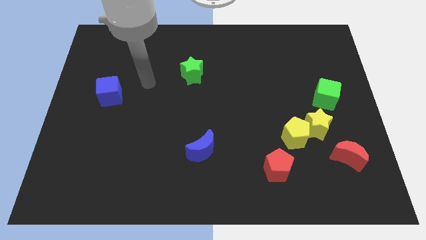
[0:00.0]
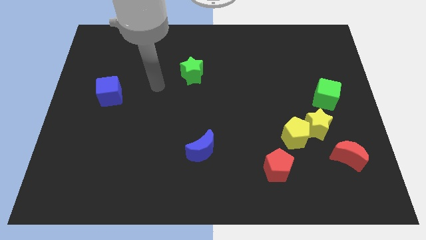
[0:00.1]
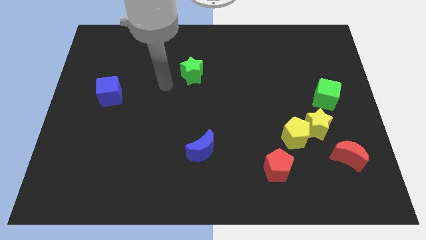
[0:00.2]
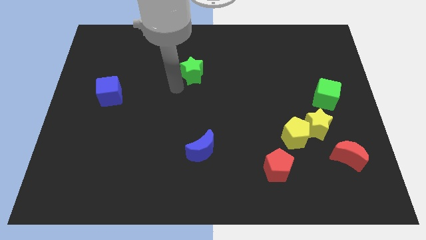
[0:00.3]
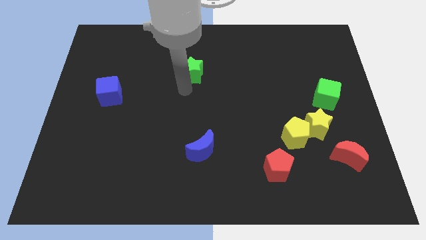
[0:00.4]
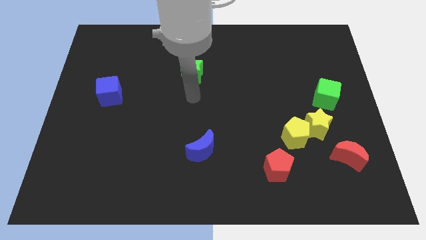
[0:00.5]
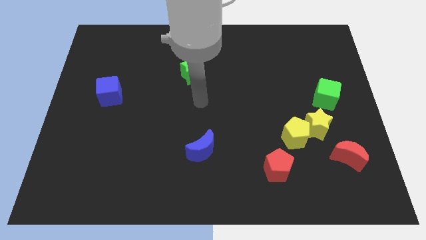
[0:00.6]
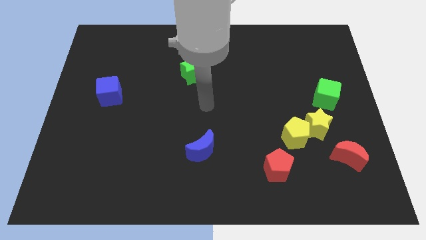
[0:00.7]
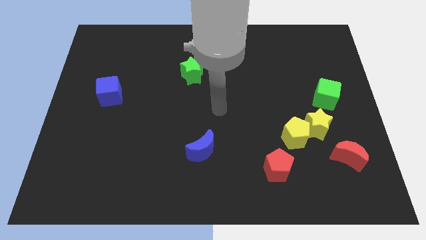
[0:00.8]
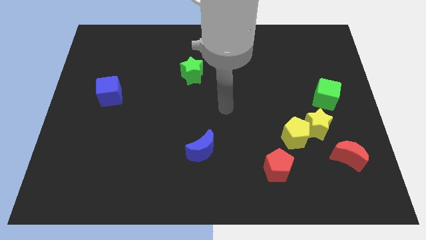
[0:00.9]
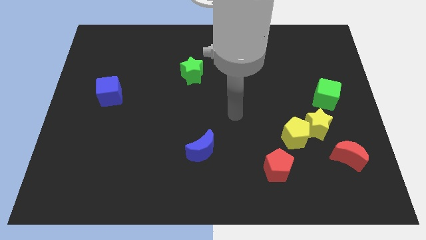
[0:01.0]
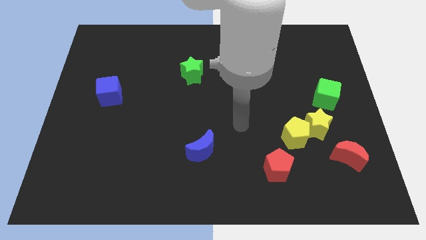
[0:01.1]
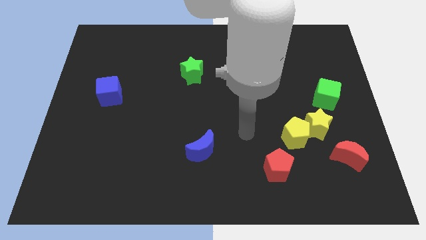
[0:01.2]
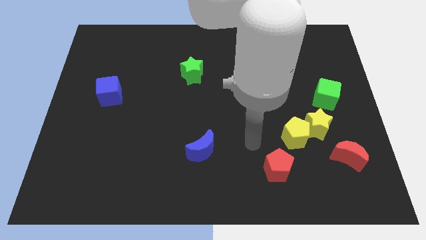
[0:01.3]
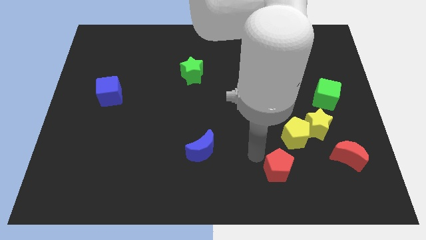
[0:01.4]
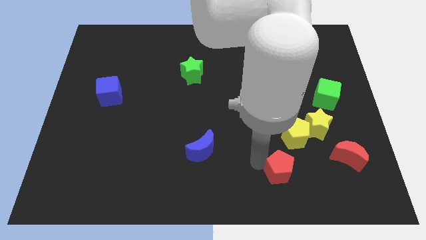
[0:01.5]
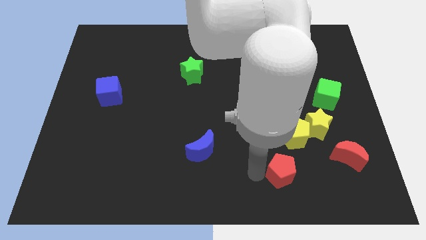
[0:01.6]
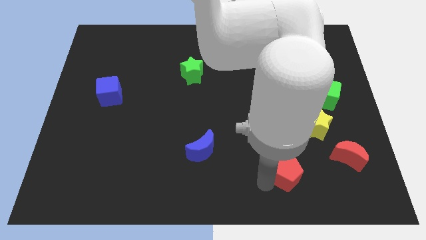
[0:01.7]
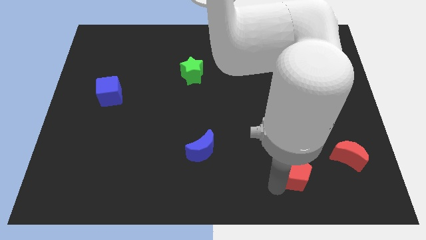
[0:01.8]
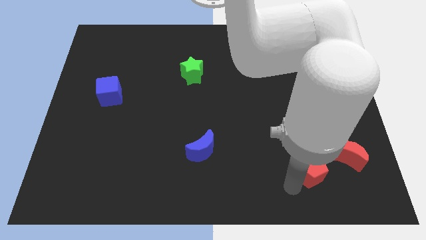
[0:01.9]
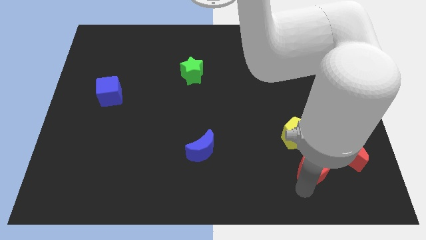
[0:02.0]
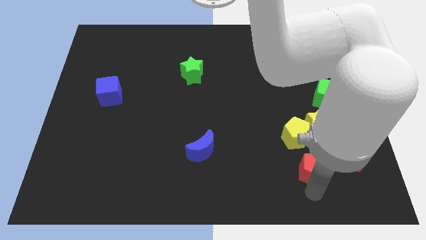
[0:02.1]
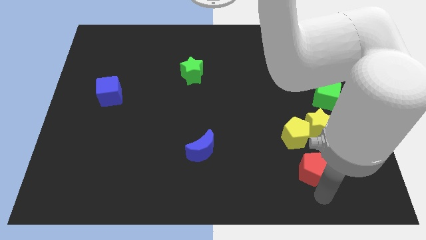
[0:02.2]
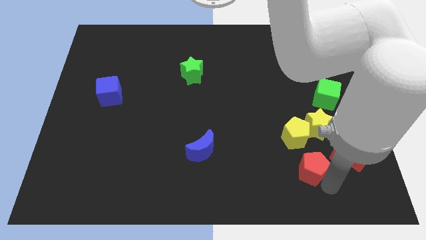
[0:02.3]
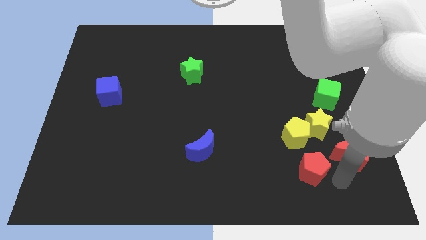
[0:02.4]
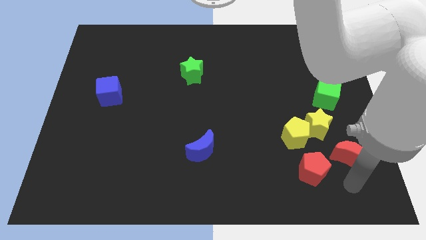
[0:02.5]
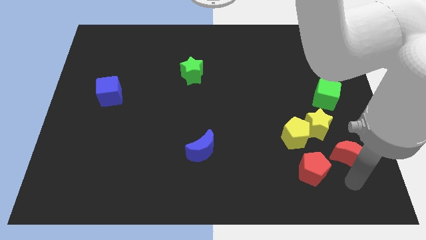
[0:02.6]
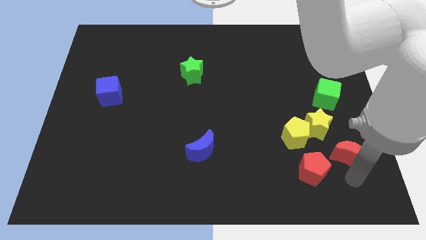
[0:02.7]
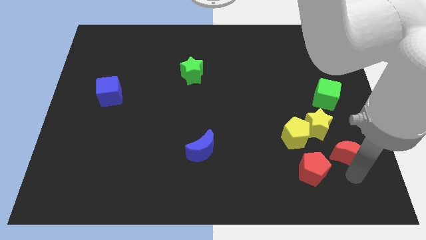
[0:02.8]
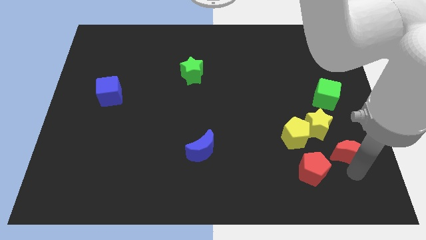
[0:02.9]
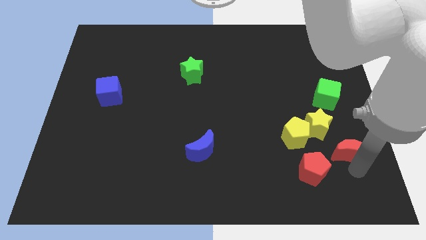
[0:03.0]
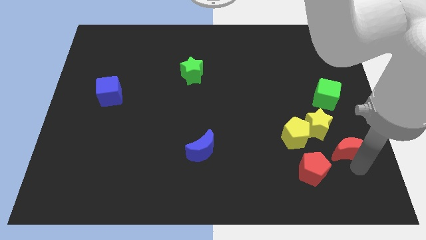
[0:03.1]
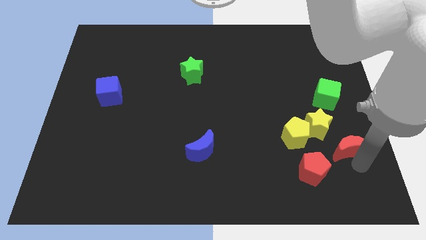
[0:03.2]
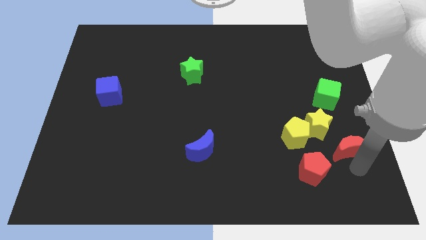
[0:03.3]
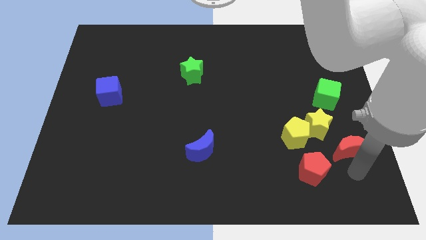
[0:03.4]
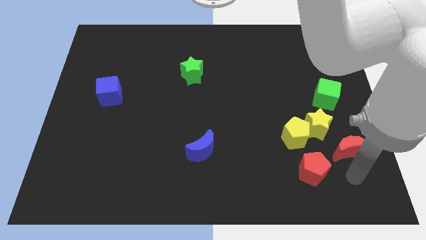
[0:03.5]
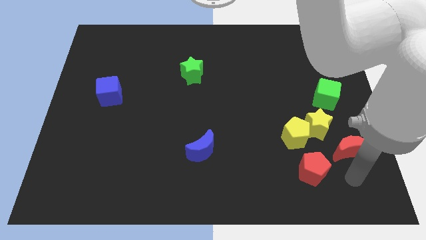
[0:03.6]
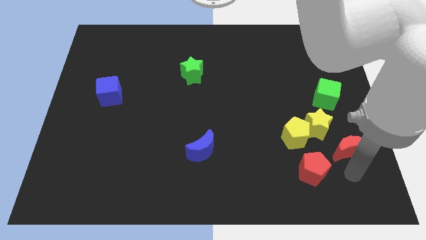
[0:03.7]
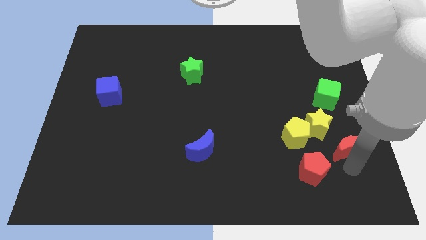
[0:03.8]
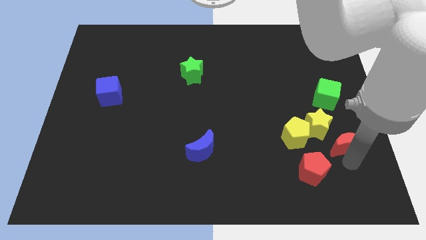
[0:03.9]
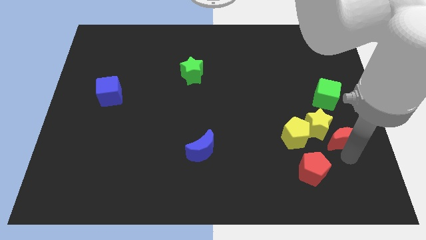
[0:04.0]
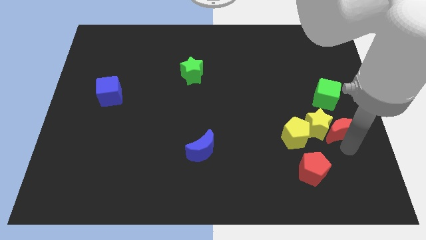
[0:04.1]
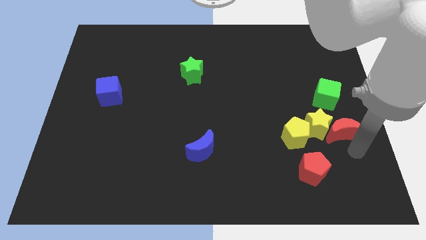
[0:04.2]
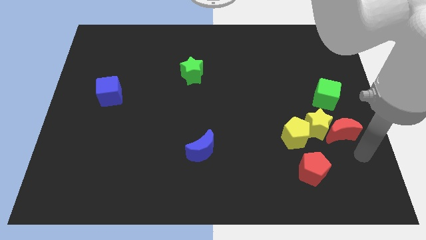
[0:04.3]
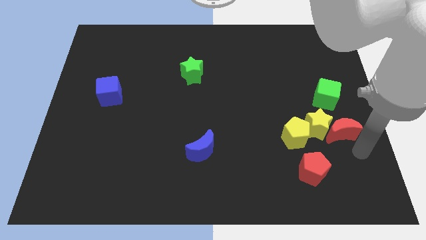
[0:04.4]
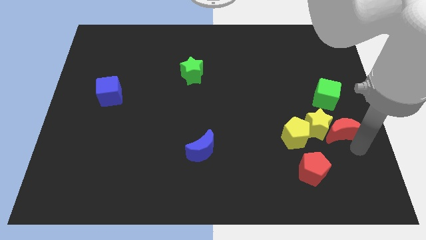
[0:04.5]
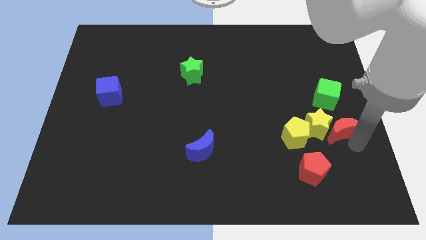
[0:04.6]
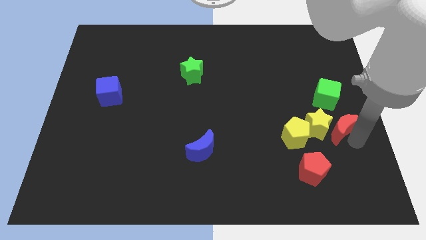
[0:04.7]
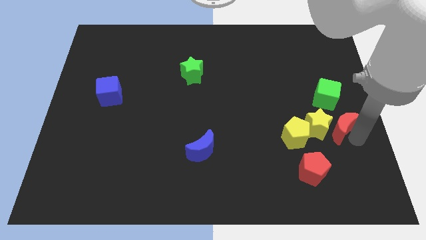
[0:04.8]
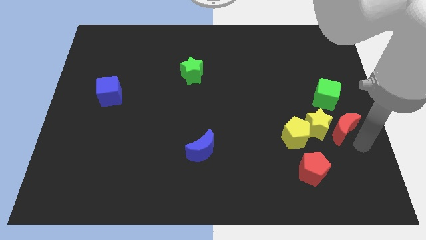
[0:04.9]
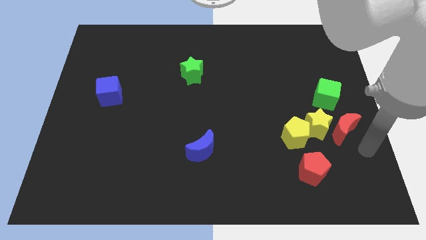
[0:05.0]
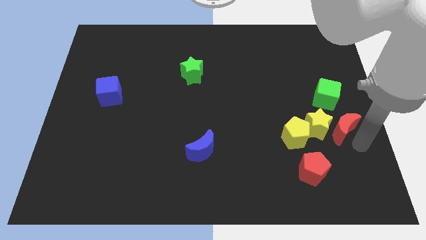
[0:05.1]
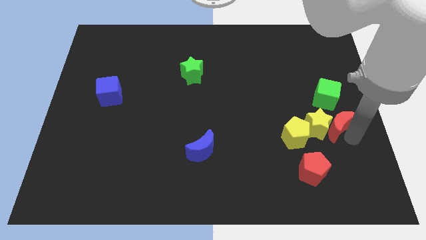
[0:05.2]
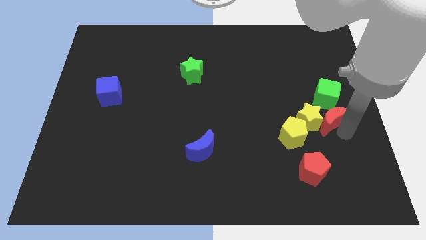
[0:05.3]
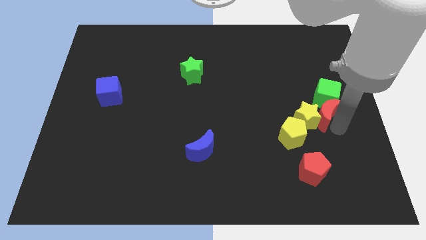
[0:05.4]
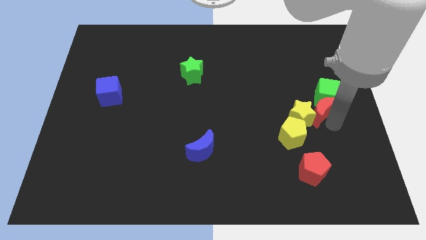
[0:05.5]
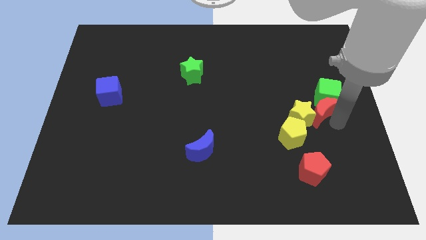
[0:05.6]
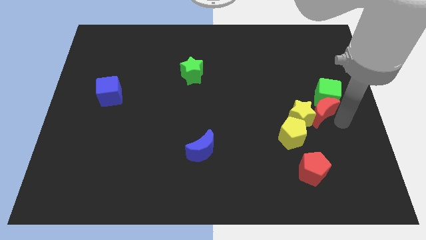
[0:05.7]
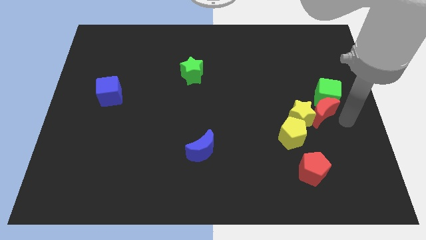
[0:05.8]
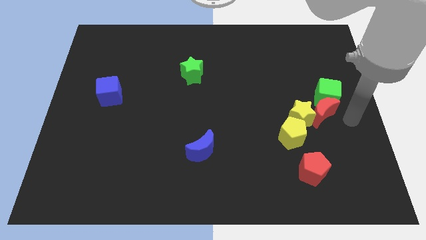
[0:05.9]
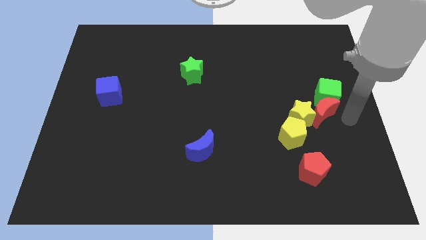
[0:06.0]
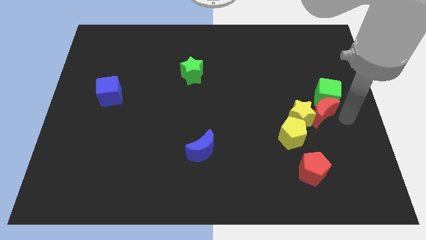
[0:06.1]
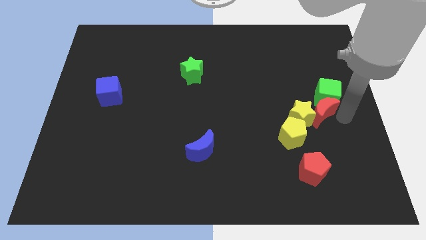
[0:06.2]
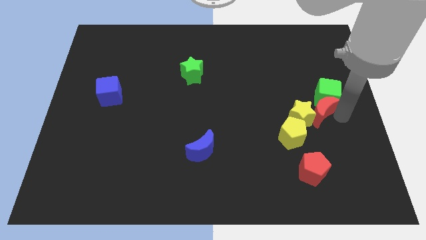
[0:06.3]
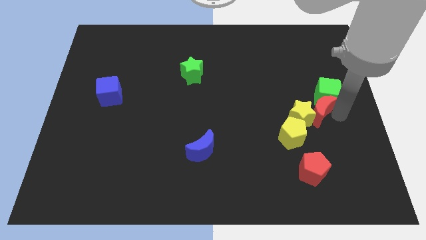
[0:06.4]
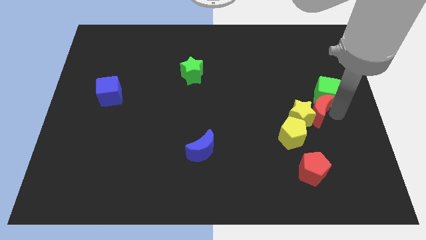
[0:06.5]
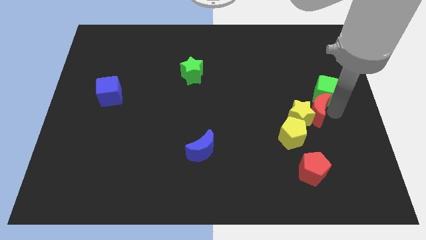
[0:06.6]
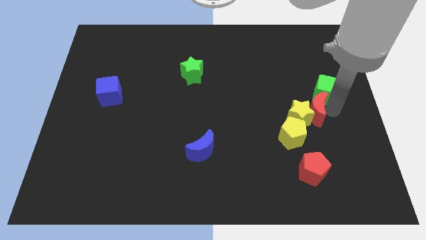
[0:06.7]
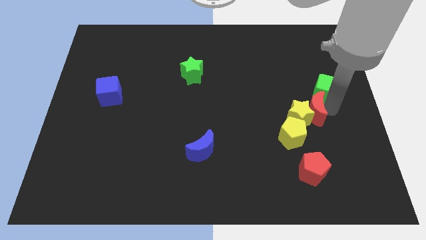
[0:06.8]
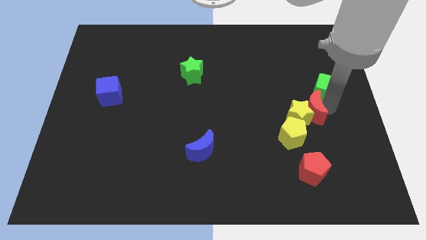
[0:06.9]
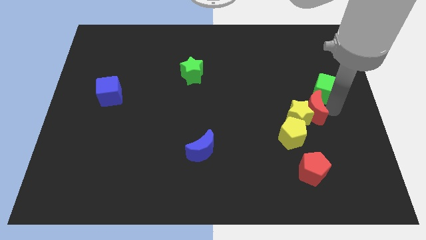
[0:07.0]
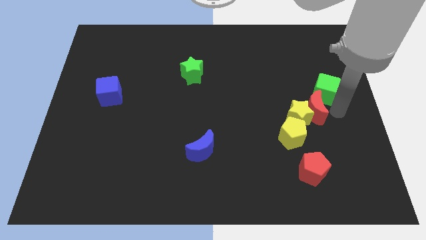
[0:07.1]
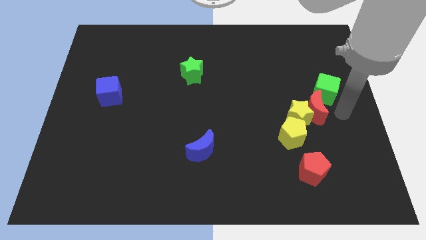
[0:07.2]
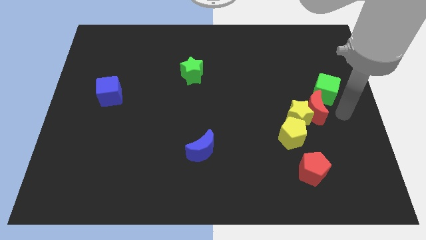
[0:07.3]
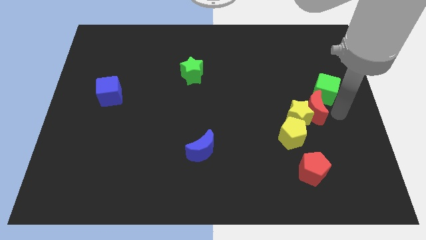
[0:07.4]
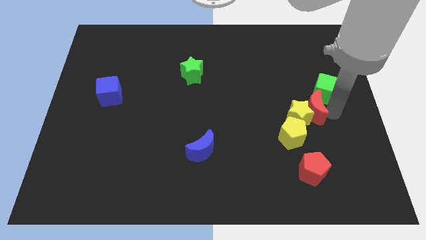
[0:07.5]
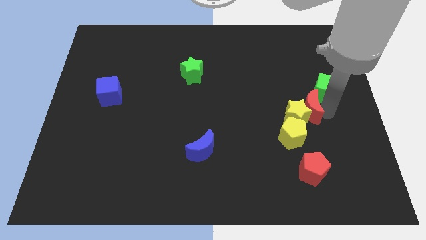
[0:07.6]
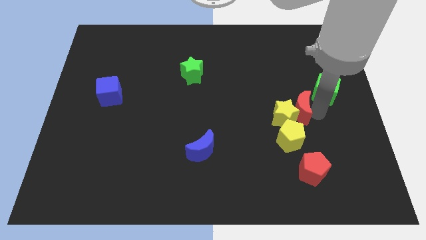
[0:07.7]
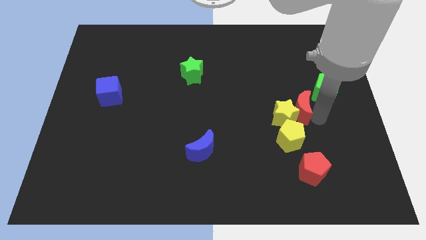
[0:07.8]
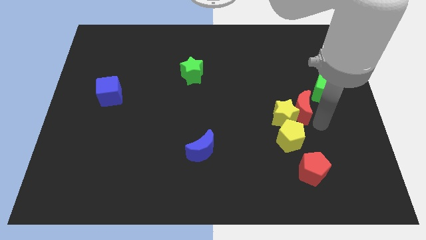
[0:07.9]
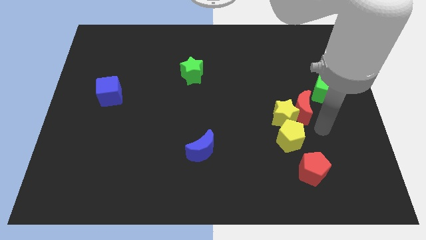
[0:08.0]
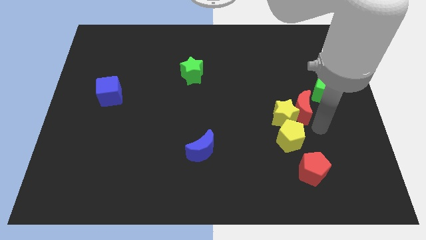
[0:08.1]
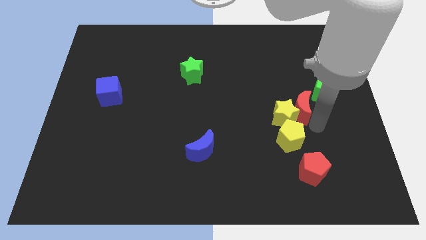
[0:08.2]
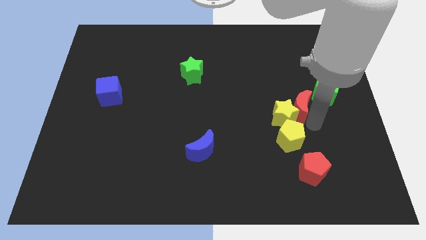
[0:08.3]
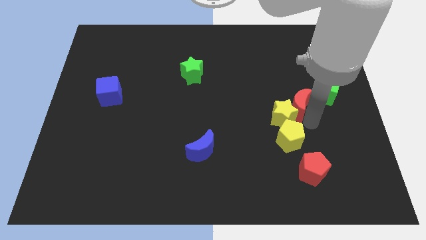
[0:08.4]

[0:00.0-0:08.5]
move the red moon just left of the green cube
